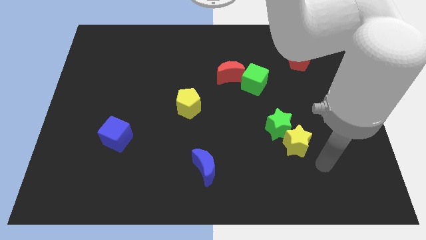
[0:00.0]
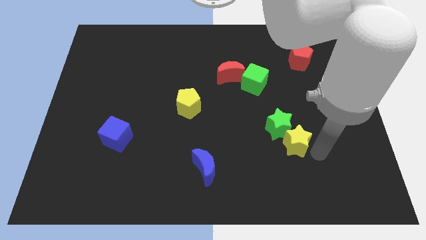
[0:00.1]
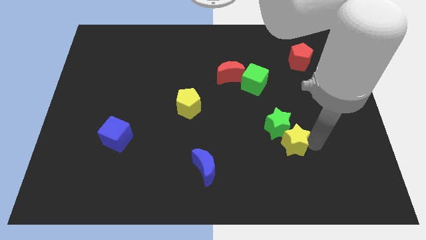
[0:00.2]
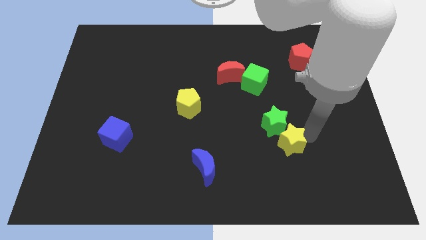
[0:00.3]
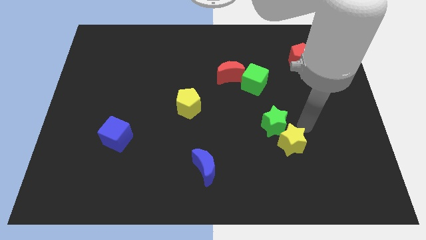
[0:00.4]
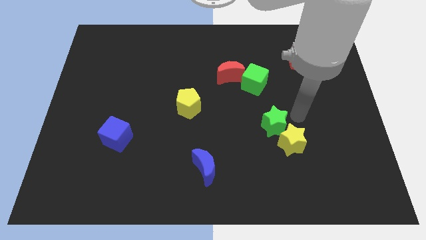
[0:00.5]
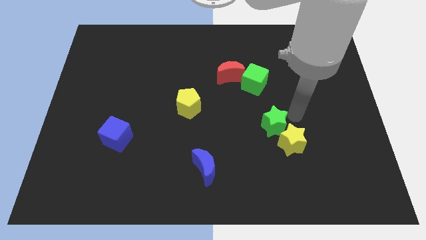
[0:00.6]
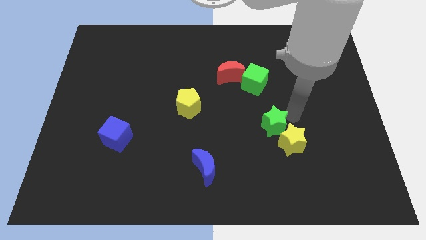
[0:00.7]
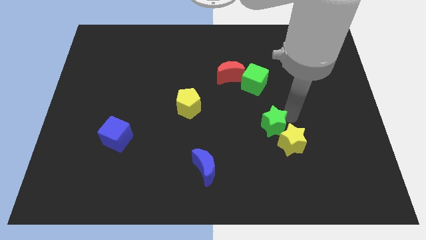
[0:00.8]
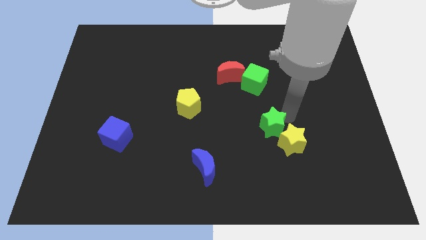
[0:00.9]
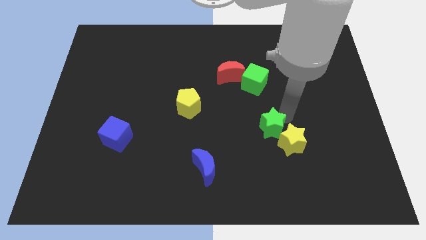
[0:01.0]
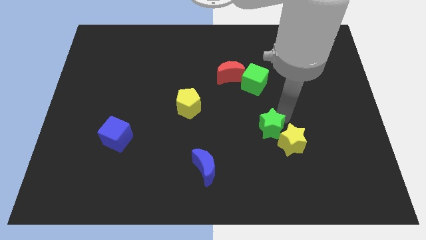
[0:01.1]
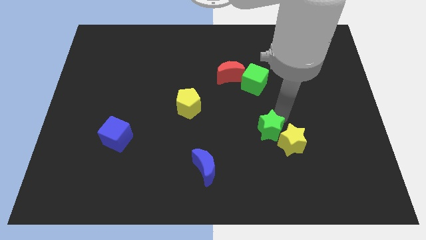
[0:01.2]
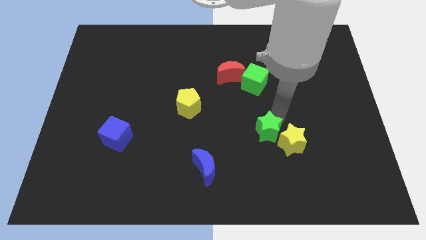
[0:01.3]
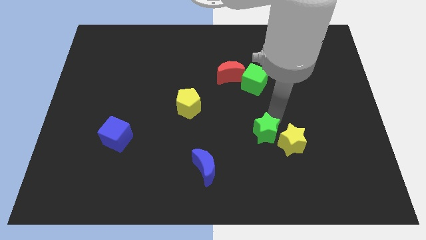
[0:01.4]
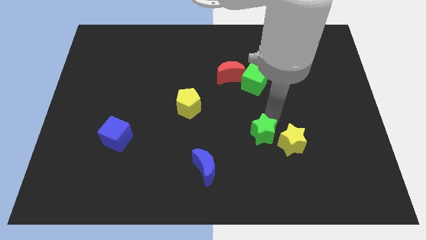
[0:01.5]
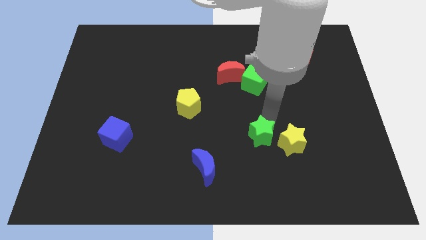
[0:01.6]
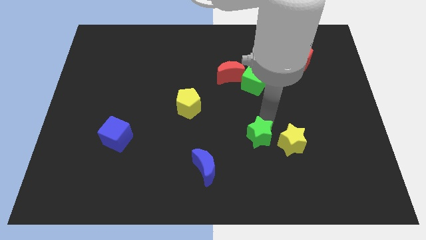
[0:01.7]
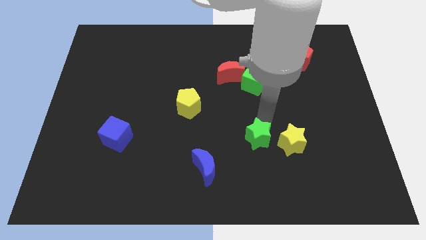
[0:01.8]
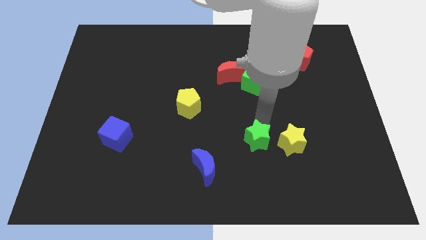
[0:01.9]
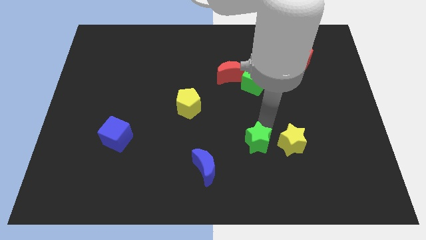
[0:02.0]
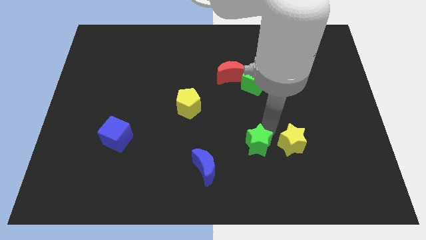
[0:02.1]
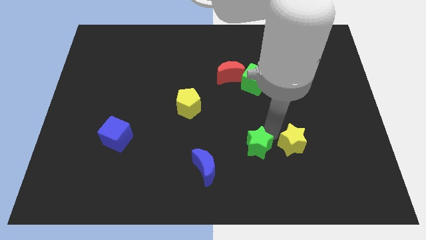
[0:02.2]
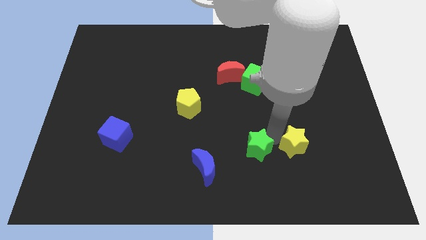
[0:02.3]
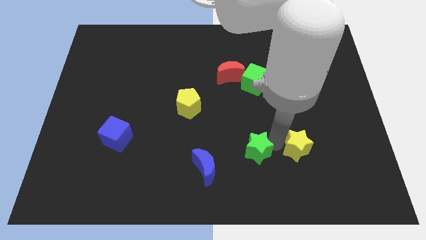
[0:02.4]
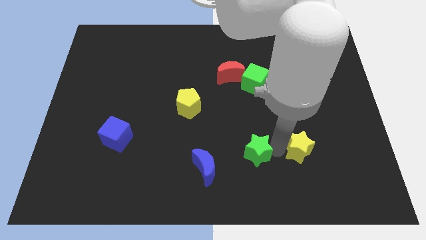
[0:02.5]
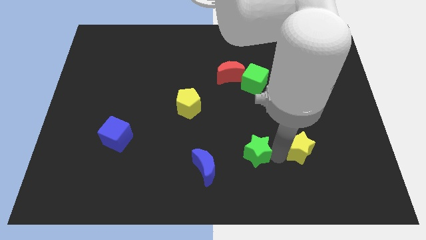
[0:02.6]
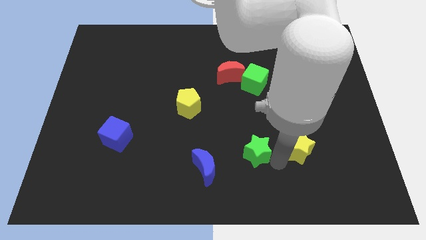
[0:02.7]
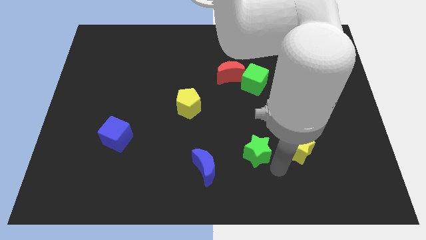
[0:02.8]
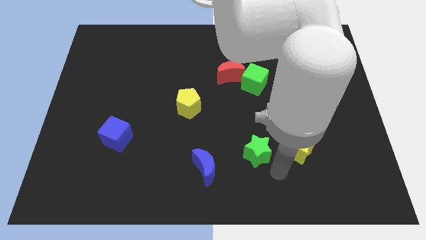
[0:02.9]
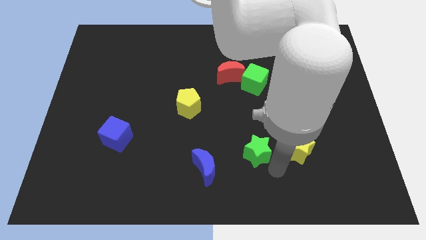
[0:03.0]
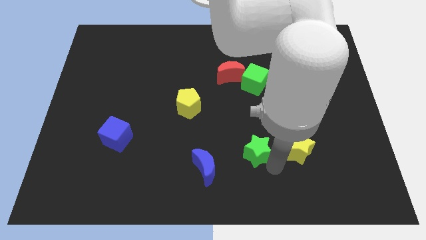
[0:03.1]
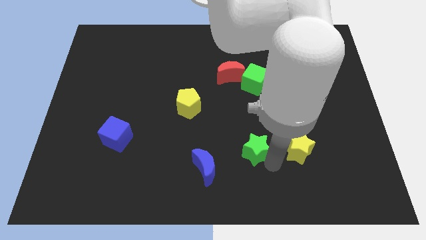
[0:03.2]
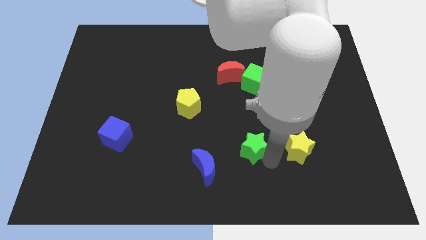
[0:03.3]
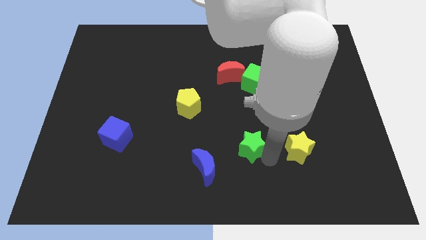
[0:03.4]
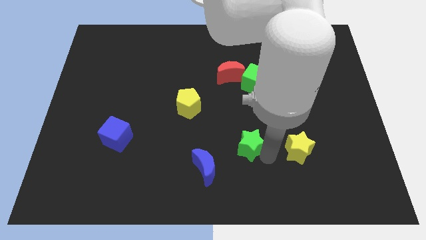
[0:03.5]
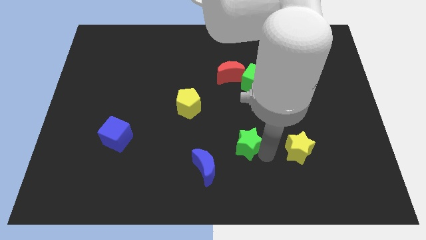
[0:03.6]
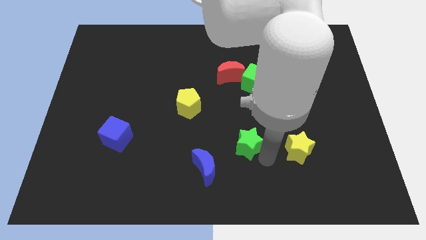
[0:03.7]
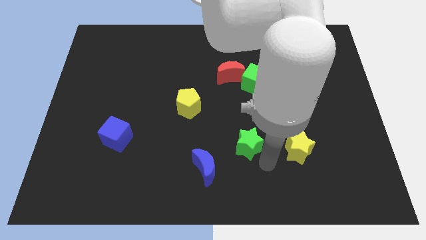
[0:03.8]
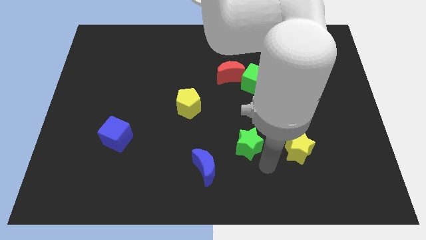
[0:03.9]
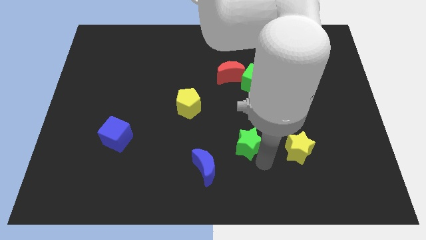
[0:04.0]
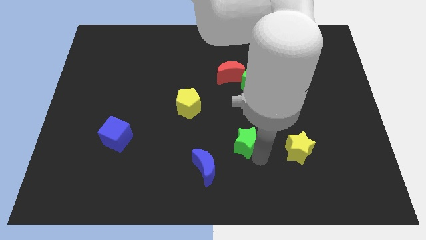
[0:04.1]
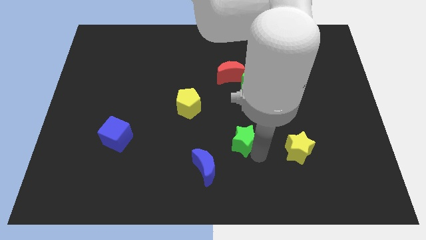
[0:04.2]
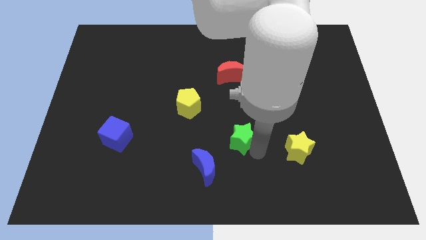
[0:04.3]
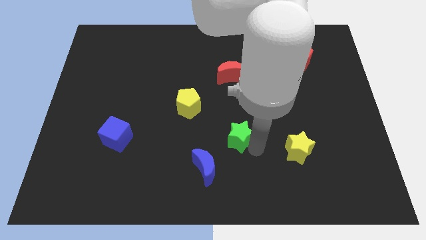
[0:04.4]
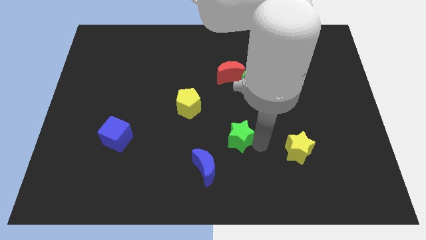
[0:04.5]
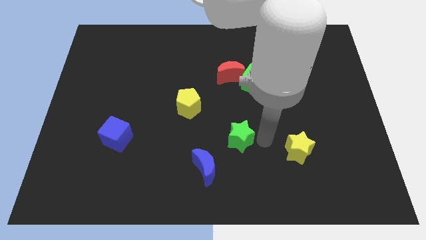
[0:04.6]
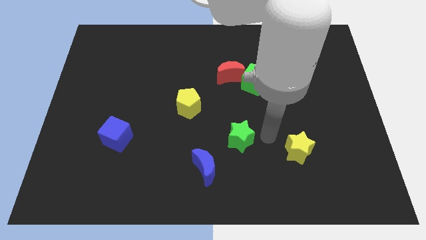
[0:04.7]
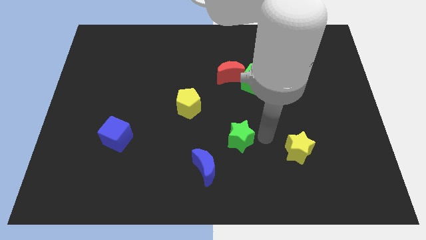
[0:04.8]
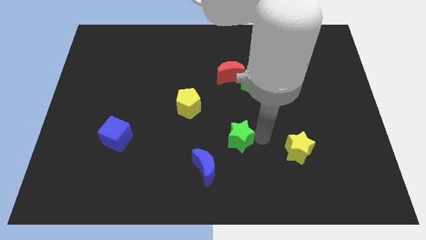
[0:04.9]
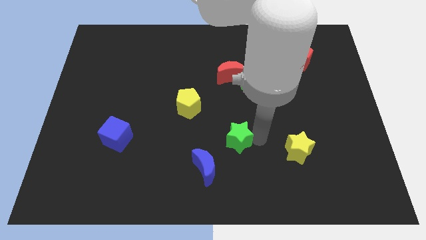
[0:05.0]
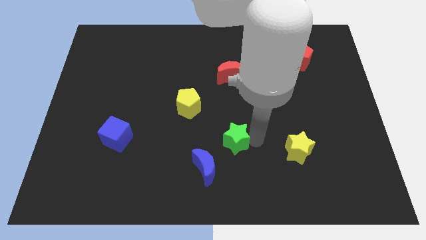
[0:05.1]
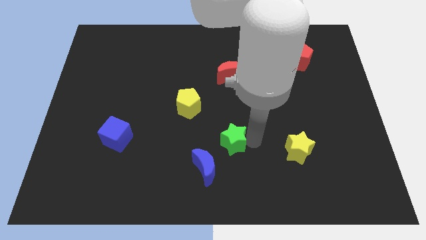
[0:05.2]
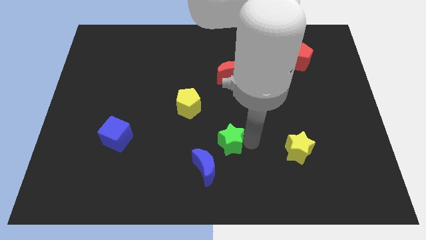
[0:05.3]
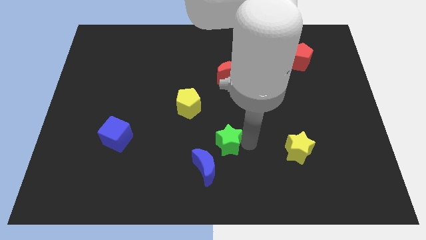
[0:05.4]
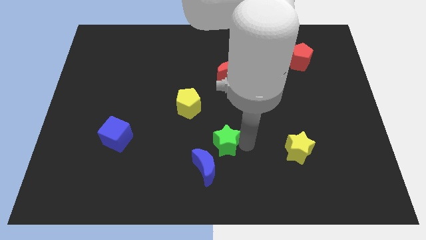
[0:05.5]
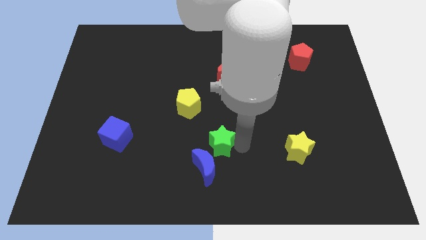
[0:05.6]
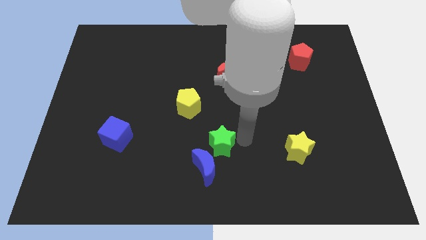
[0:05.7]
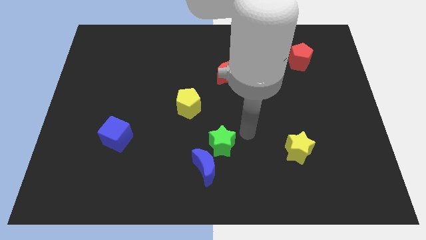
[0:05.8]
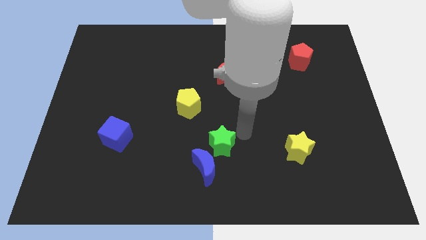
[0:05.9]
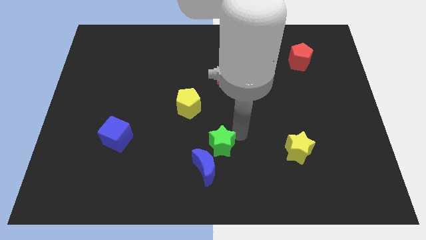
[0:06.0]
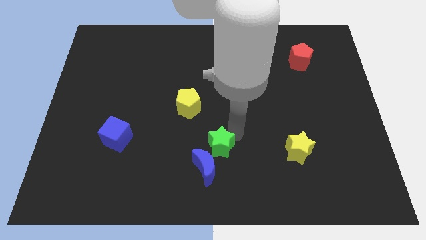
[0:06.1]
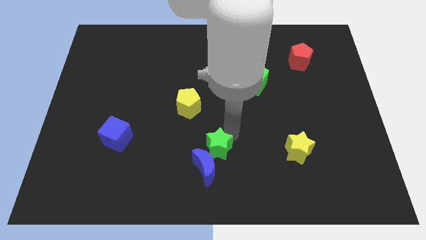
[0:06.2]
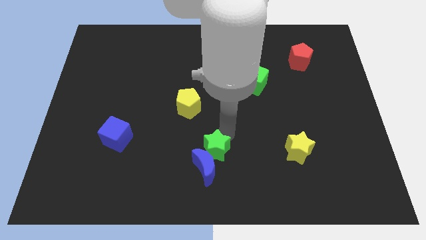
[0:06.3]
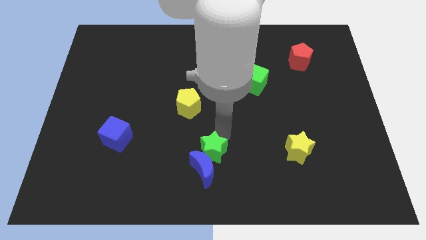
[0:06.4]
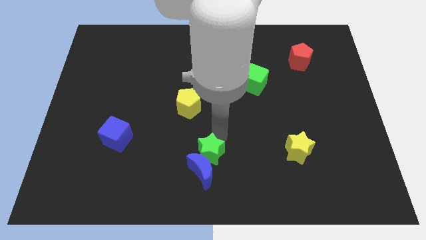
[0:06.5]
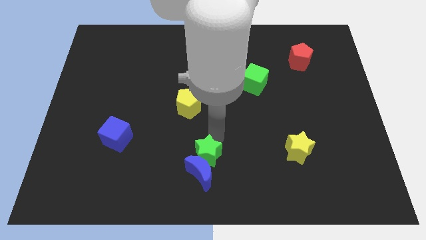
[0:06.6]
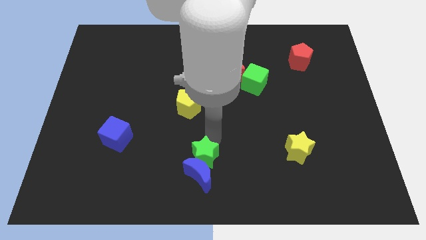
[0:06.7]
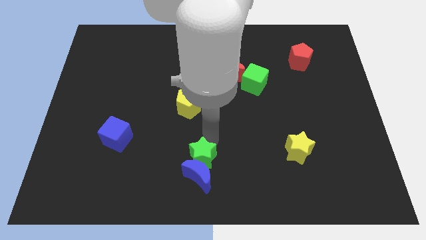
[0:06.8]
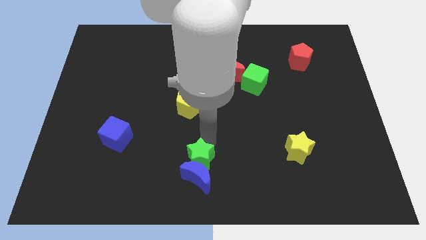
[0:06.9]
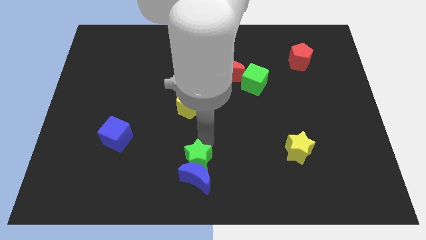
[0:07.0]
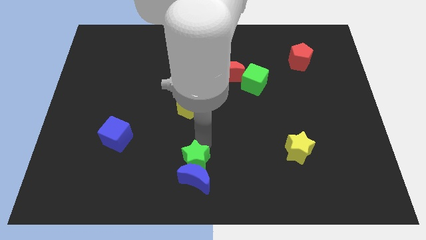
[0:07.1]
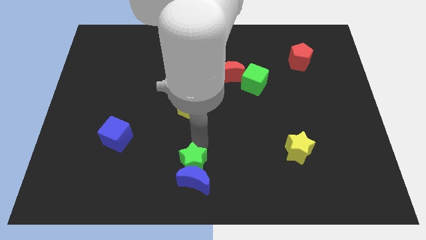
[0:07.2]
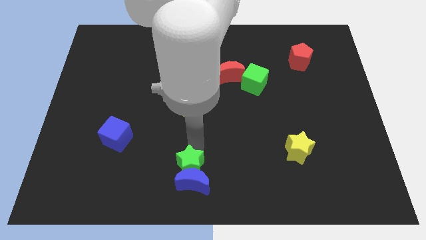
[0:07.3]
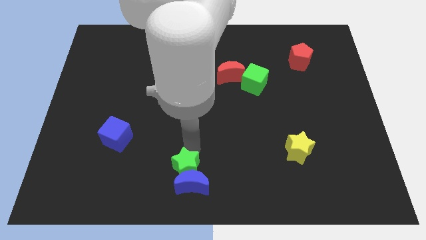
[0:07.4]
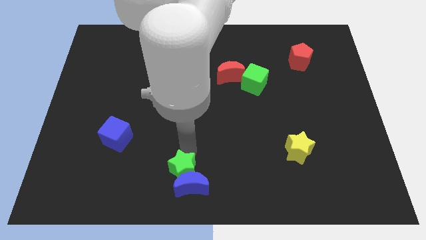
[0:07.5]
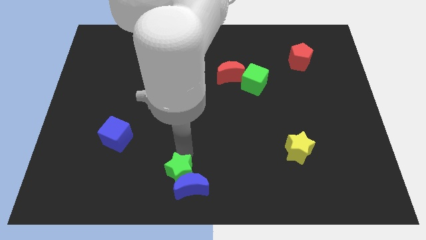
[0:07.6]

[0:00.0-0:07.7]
push the green star just left of the blue moon
